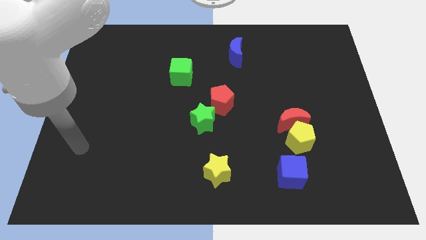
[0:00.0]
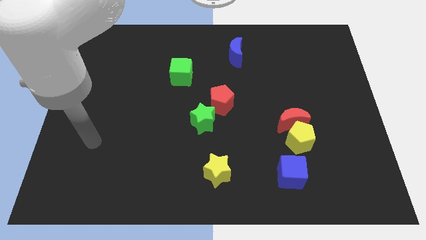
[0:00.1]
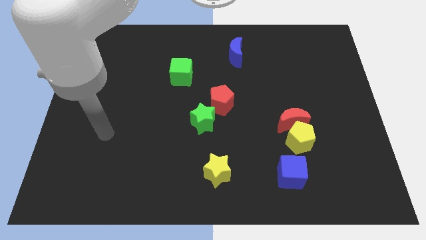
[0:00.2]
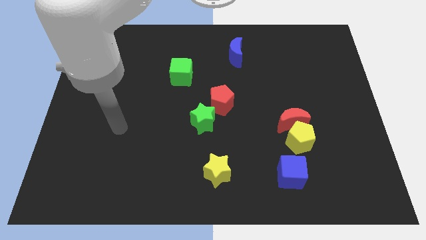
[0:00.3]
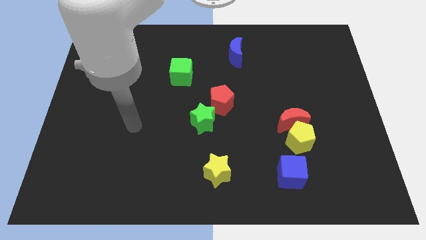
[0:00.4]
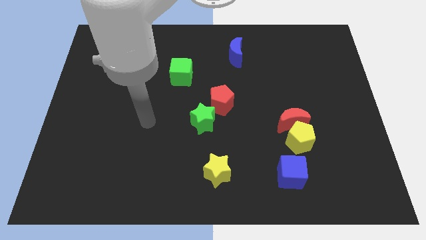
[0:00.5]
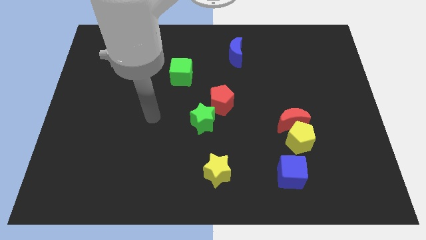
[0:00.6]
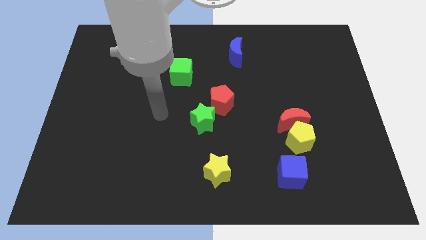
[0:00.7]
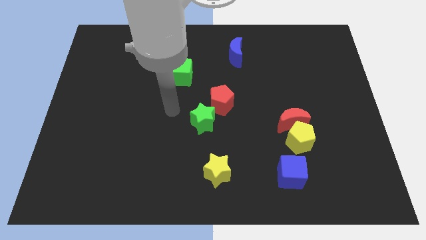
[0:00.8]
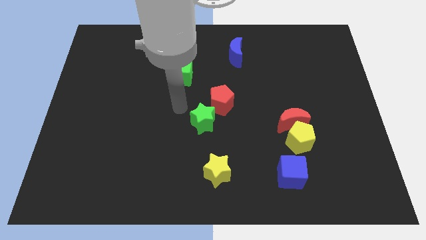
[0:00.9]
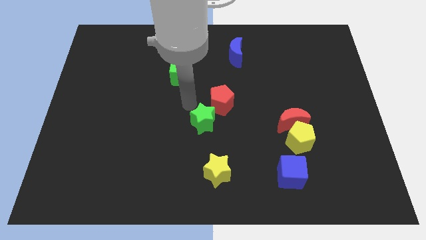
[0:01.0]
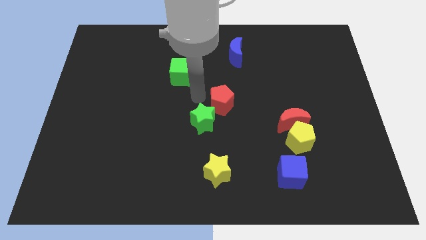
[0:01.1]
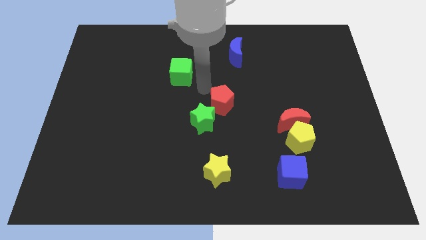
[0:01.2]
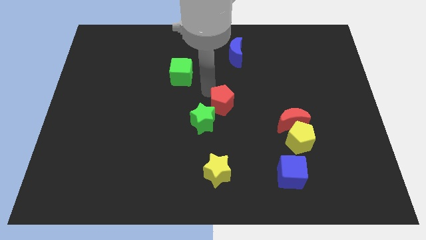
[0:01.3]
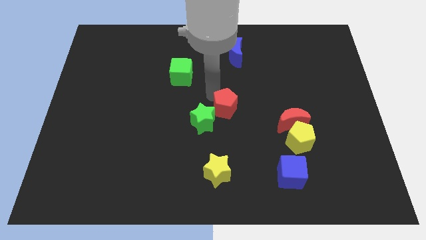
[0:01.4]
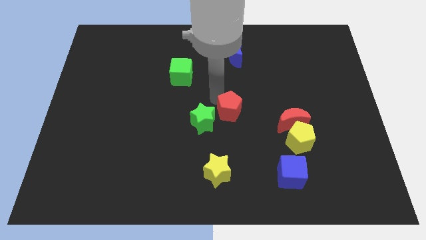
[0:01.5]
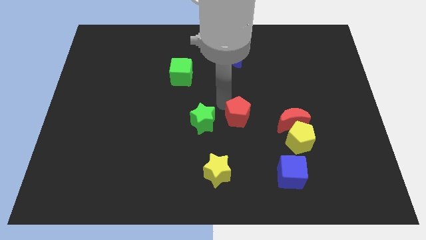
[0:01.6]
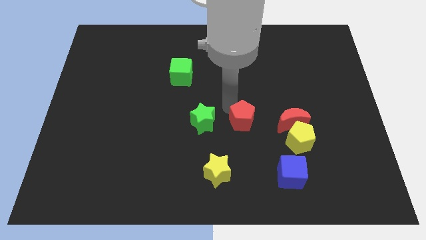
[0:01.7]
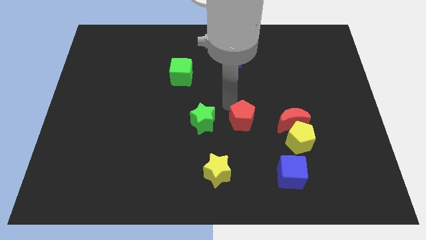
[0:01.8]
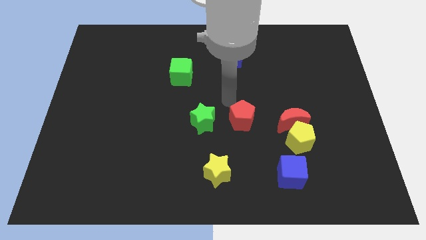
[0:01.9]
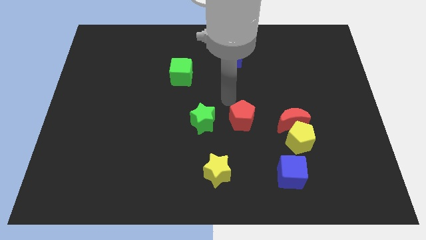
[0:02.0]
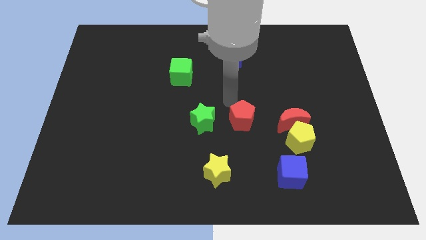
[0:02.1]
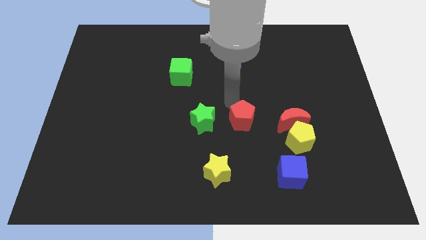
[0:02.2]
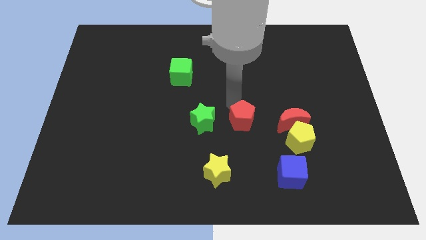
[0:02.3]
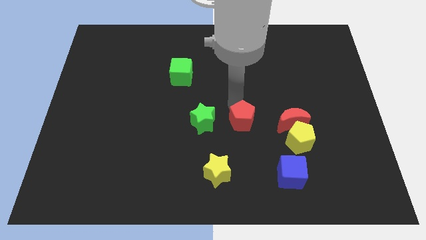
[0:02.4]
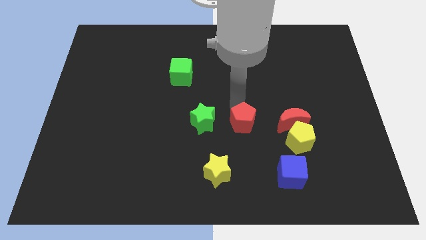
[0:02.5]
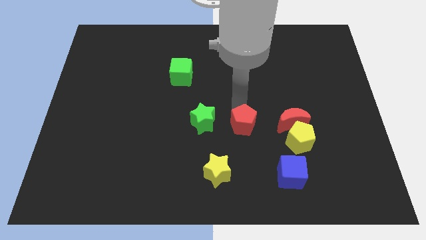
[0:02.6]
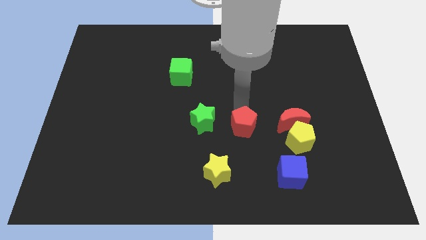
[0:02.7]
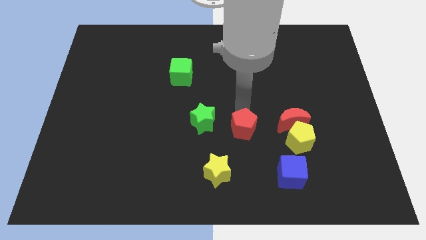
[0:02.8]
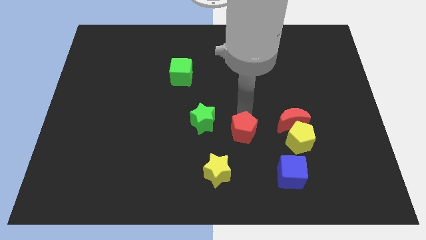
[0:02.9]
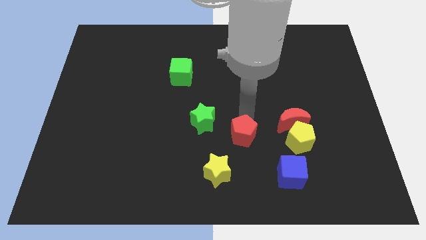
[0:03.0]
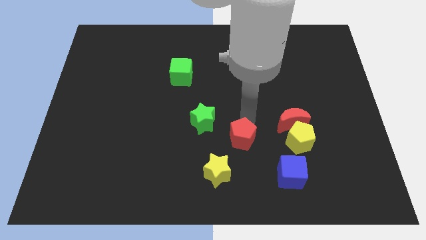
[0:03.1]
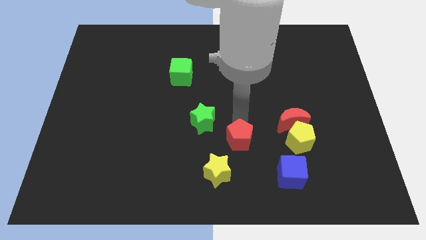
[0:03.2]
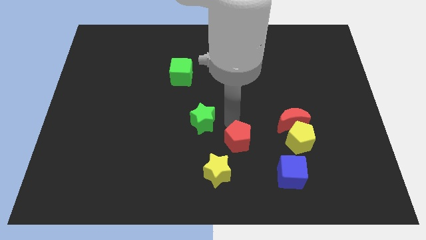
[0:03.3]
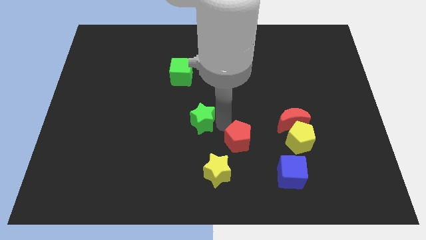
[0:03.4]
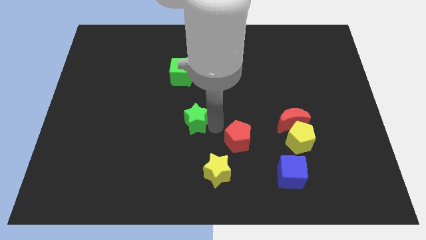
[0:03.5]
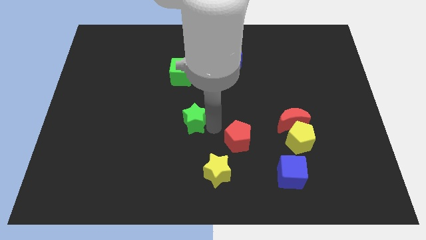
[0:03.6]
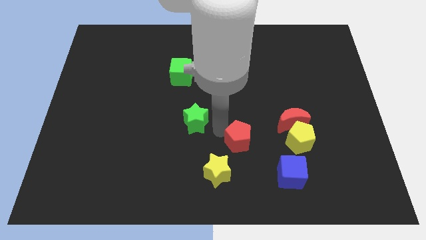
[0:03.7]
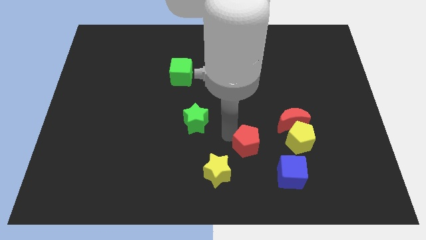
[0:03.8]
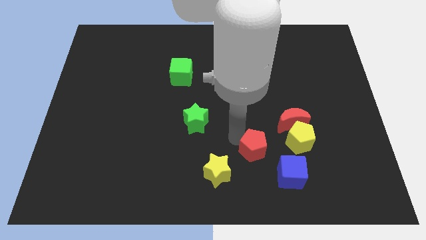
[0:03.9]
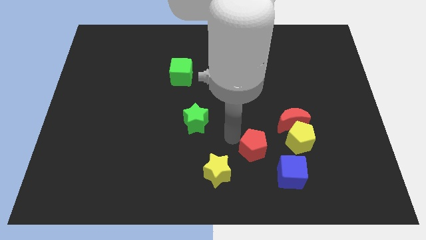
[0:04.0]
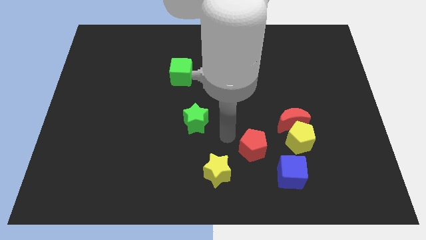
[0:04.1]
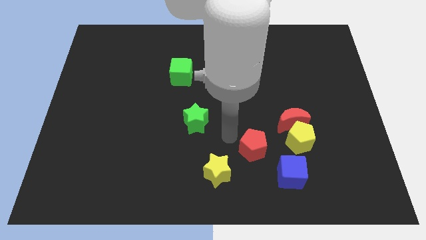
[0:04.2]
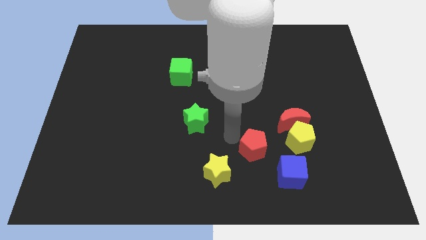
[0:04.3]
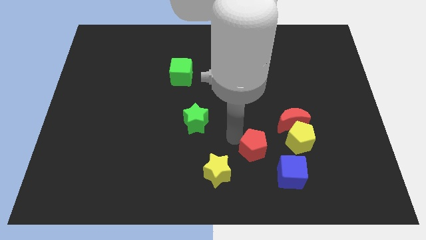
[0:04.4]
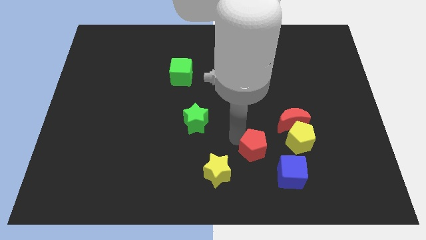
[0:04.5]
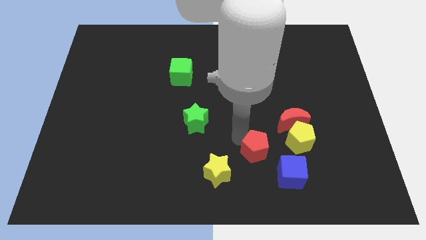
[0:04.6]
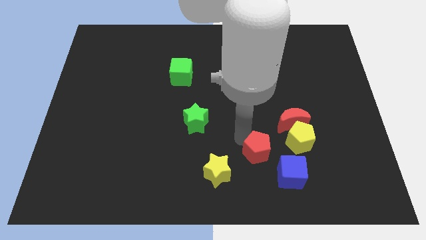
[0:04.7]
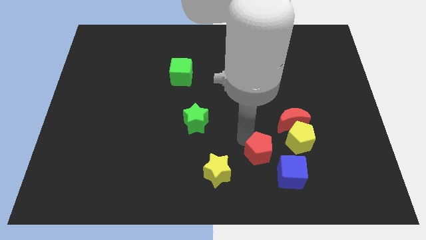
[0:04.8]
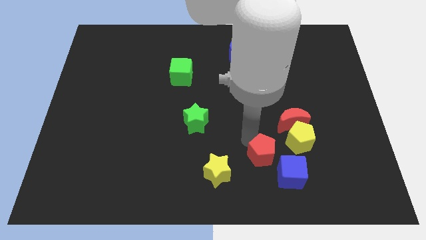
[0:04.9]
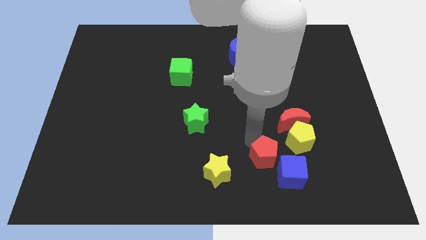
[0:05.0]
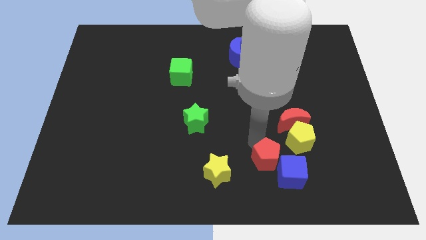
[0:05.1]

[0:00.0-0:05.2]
put the red pentagon towards the blue cube

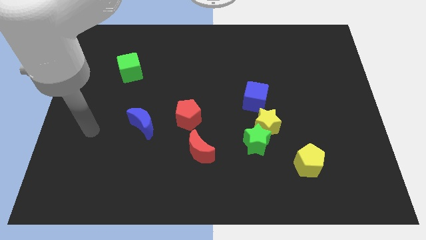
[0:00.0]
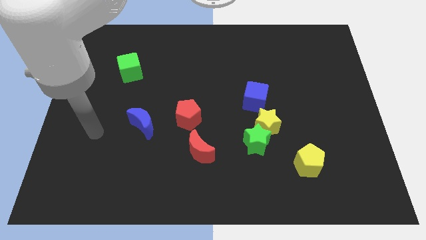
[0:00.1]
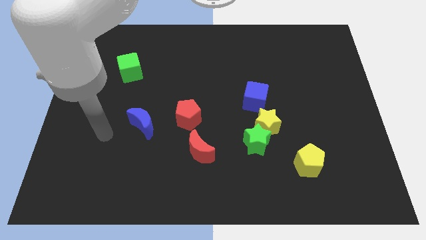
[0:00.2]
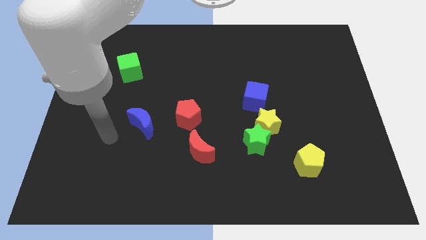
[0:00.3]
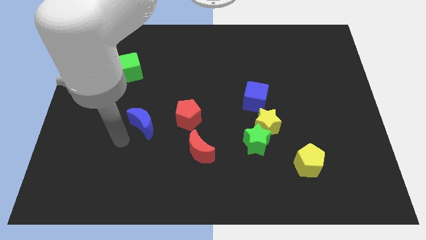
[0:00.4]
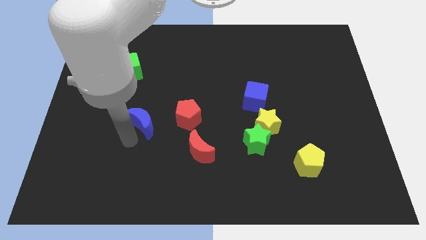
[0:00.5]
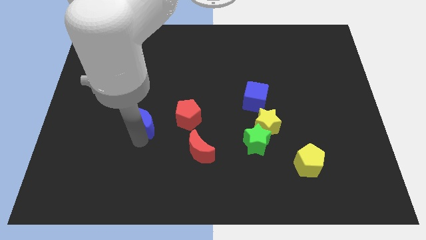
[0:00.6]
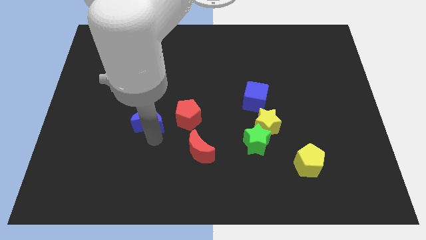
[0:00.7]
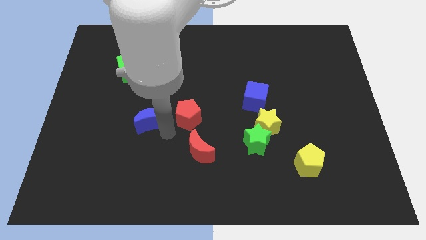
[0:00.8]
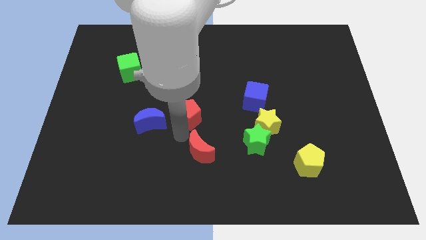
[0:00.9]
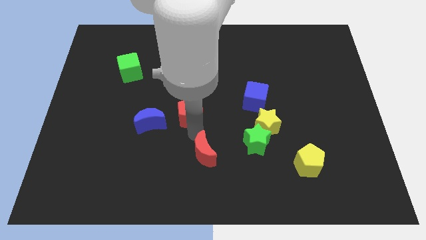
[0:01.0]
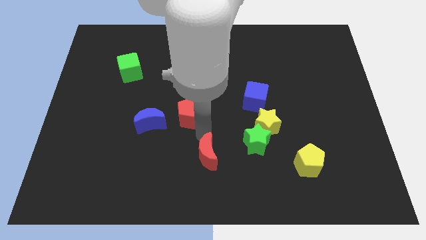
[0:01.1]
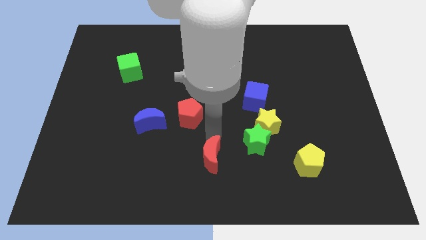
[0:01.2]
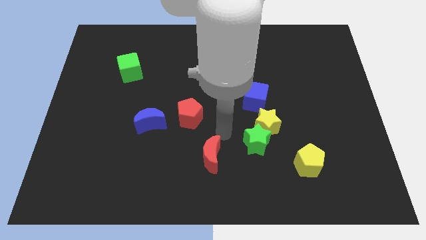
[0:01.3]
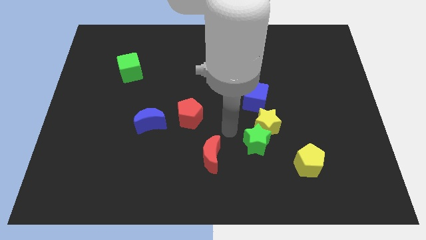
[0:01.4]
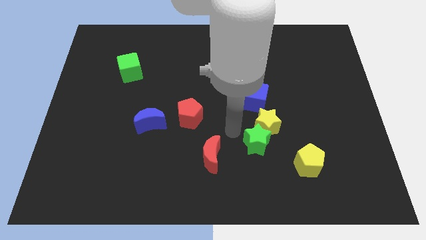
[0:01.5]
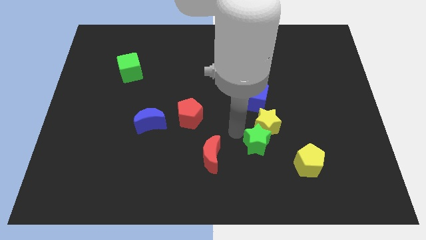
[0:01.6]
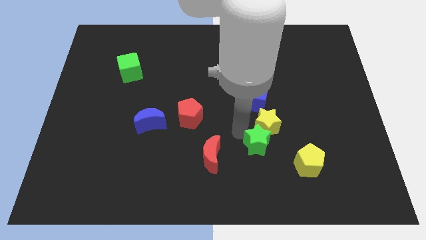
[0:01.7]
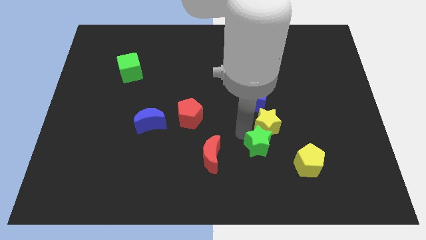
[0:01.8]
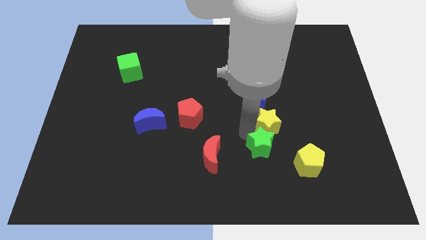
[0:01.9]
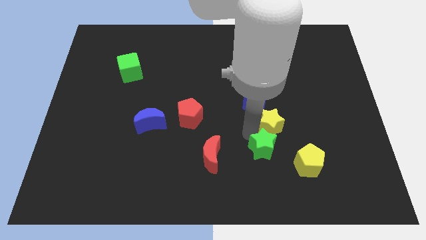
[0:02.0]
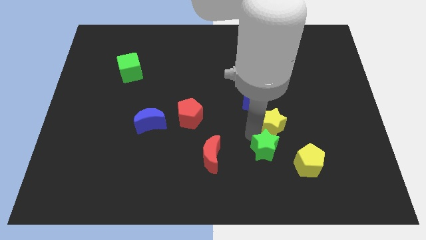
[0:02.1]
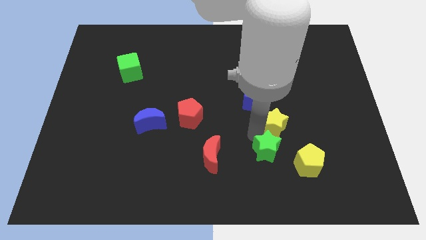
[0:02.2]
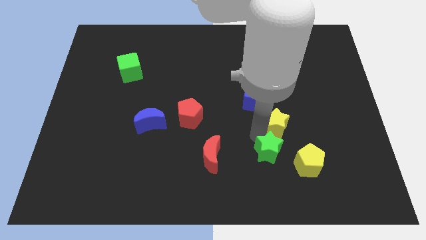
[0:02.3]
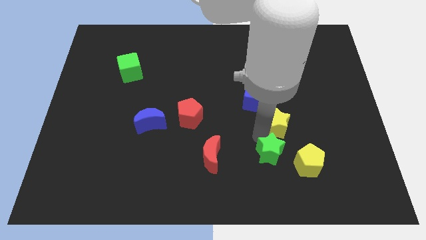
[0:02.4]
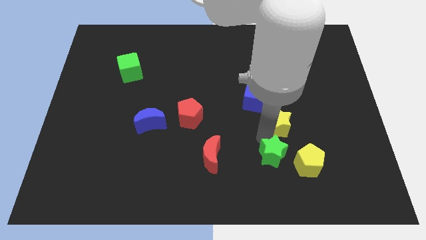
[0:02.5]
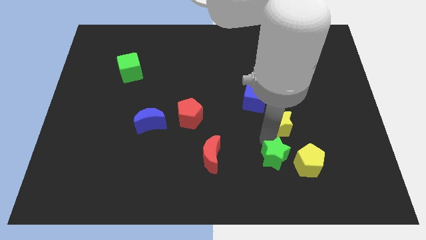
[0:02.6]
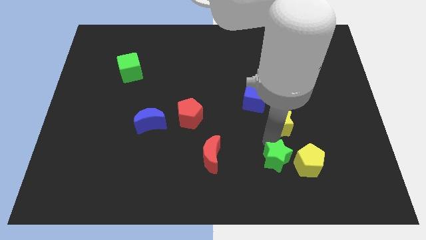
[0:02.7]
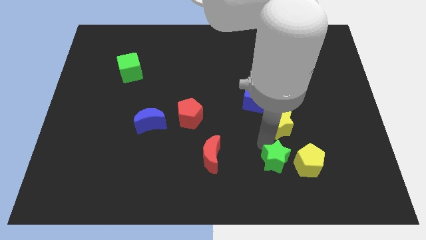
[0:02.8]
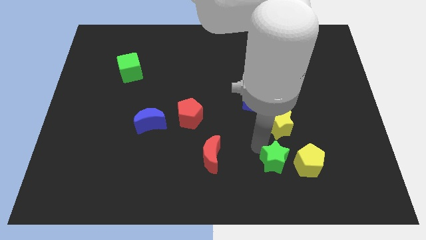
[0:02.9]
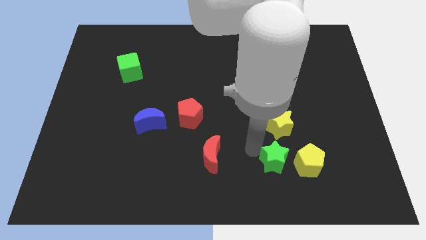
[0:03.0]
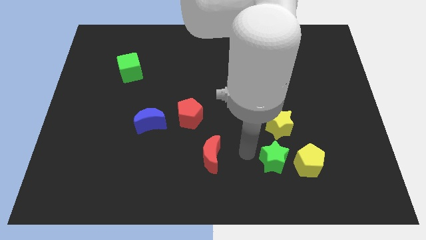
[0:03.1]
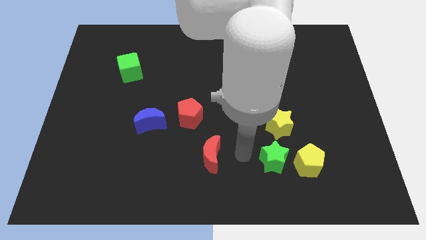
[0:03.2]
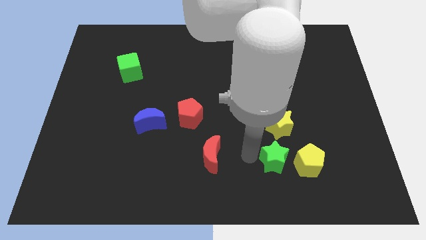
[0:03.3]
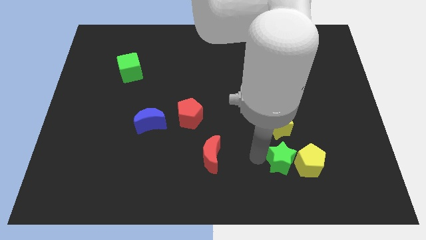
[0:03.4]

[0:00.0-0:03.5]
move the green star next to the yellow pentagon
